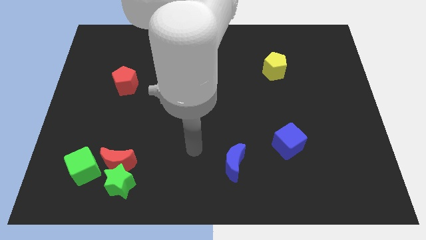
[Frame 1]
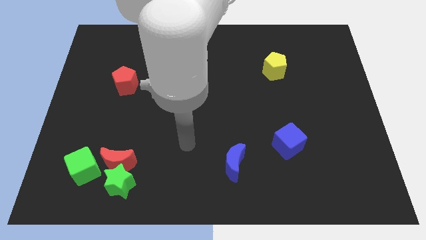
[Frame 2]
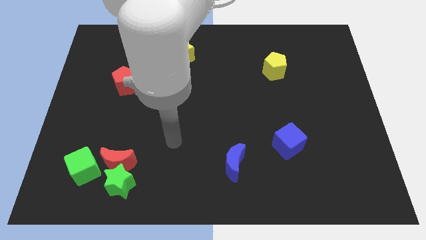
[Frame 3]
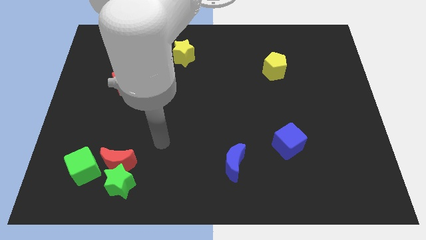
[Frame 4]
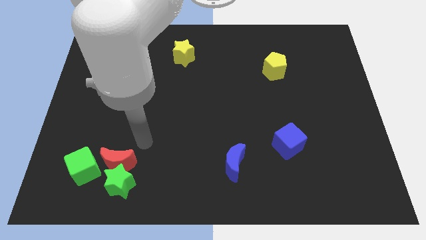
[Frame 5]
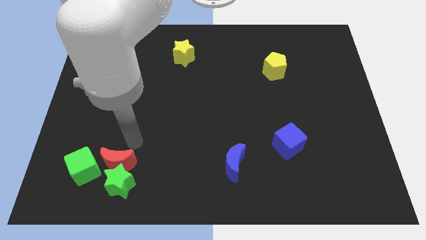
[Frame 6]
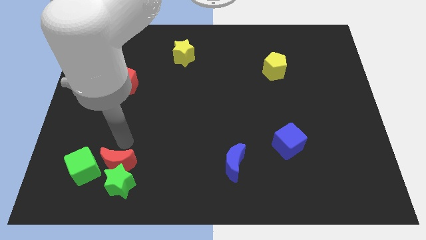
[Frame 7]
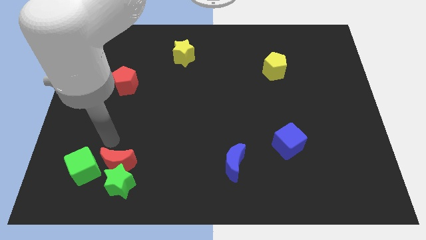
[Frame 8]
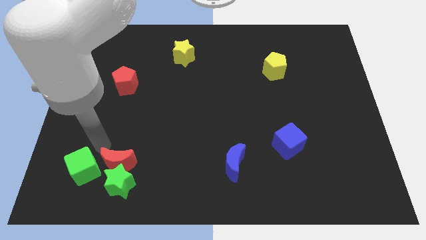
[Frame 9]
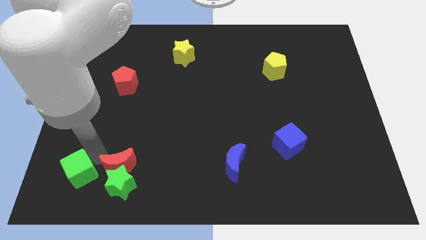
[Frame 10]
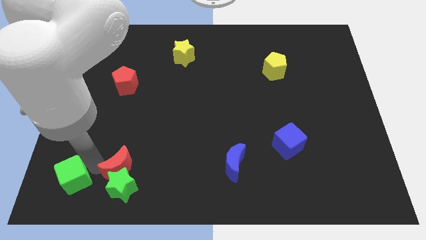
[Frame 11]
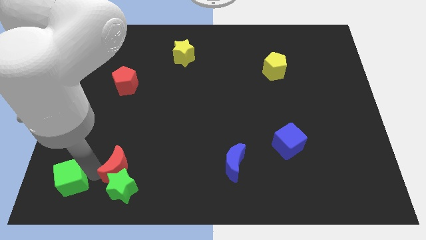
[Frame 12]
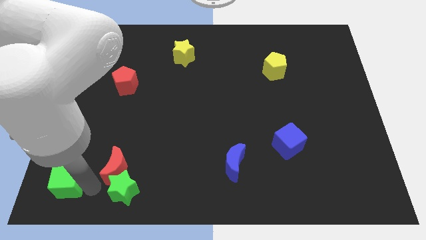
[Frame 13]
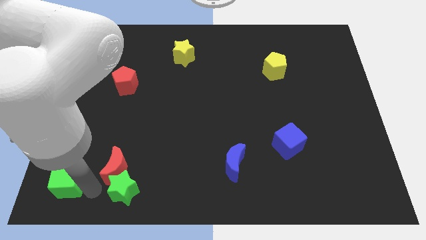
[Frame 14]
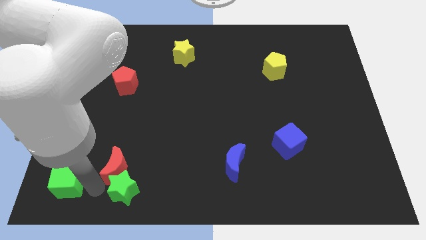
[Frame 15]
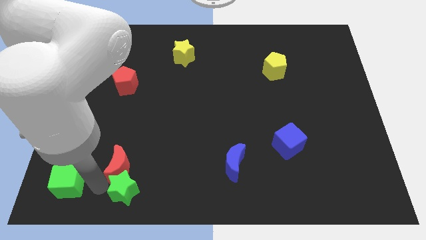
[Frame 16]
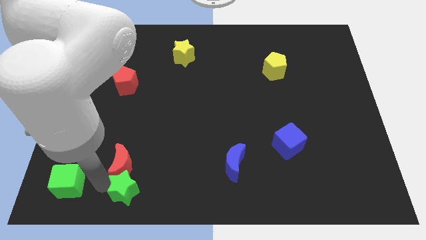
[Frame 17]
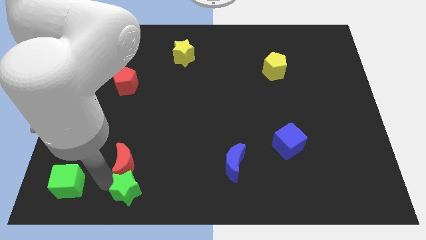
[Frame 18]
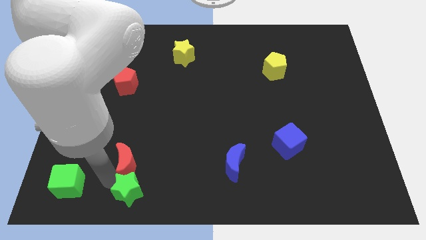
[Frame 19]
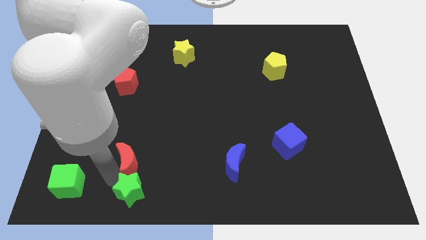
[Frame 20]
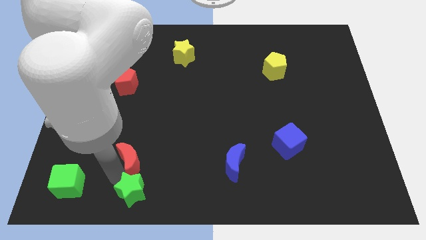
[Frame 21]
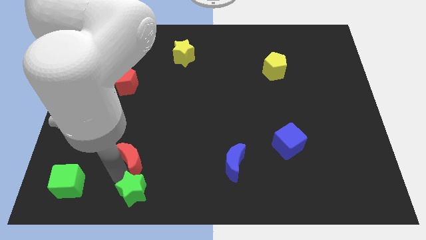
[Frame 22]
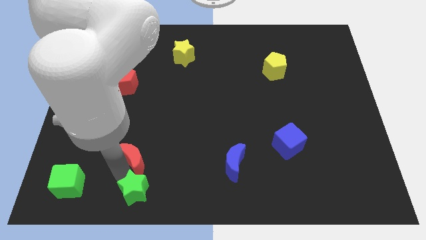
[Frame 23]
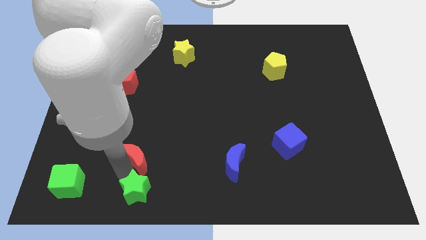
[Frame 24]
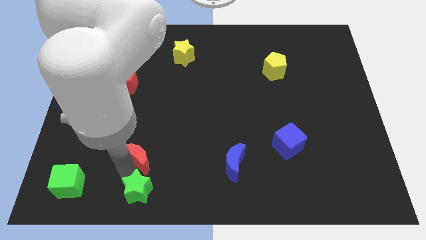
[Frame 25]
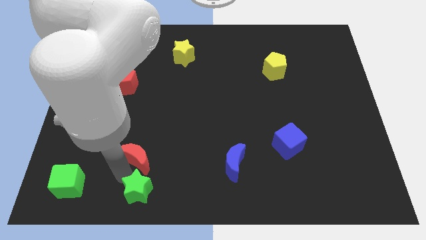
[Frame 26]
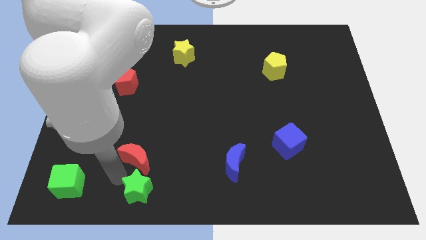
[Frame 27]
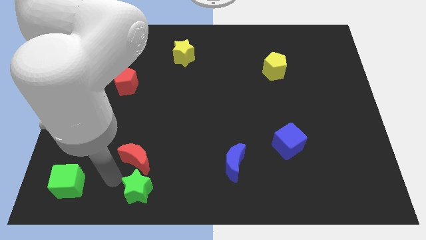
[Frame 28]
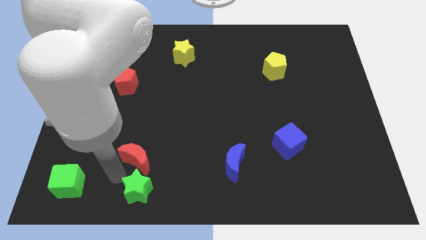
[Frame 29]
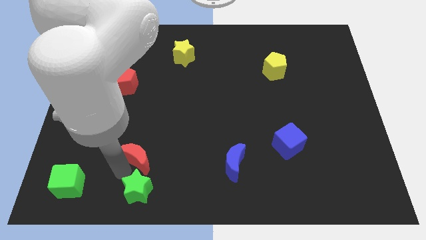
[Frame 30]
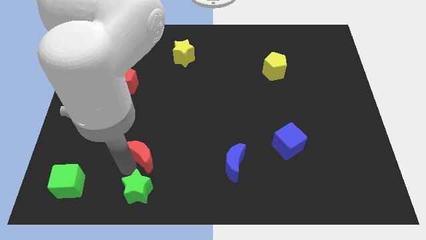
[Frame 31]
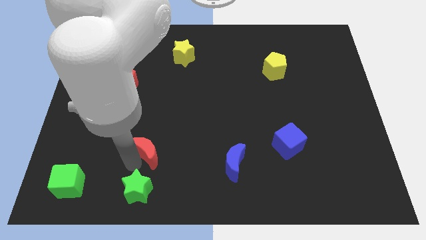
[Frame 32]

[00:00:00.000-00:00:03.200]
move the red moon away from the green star and green cube

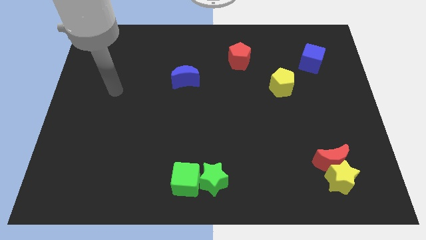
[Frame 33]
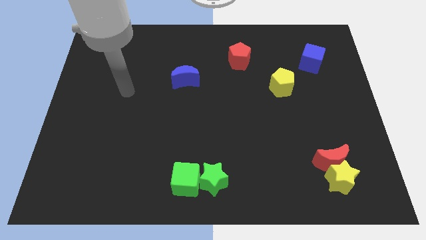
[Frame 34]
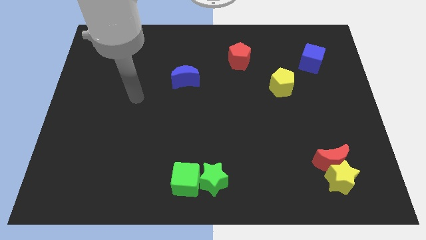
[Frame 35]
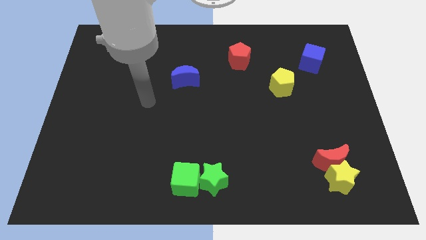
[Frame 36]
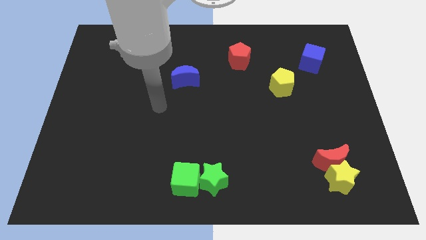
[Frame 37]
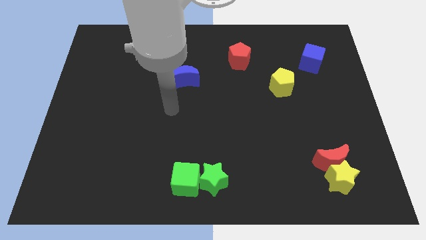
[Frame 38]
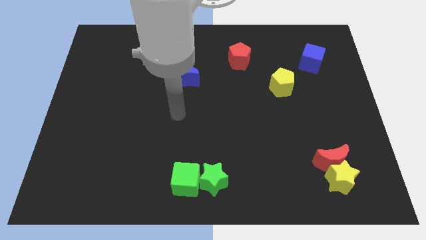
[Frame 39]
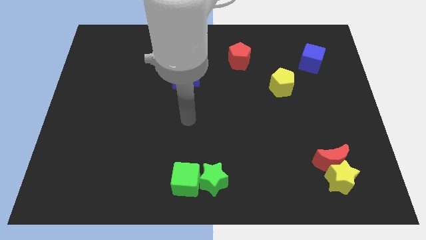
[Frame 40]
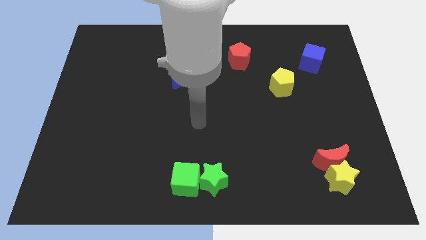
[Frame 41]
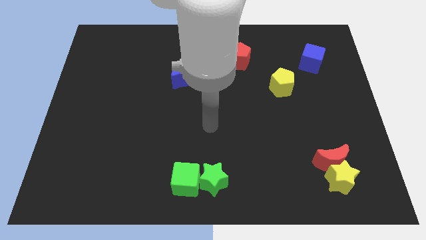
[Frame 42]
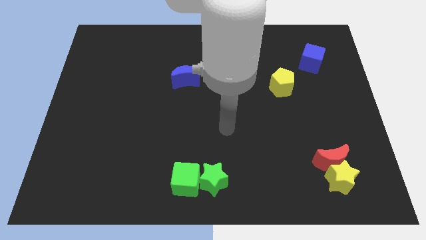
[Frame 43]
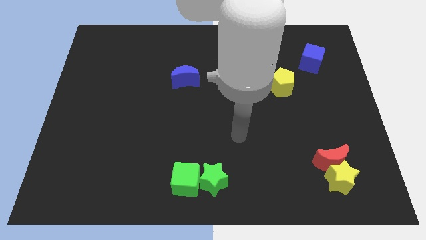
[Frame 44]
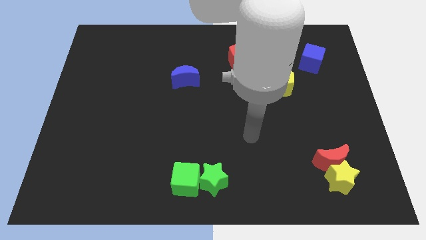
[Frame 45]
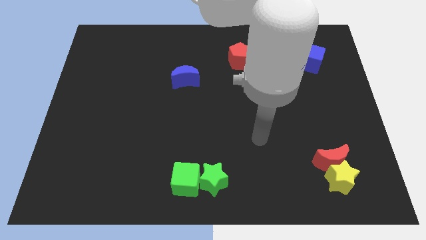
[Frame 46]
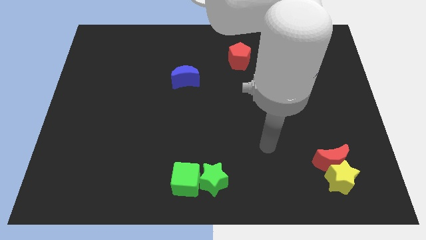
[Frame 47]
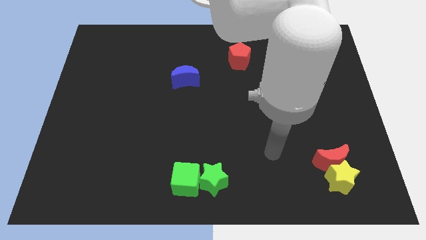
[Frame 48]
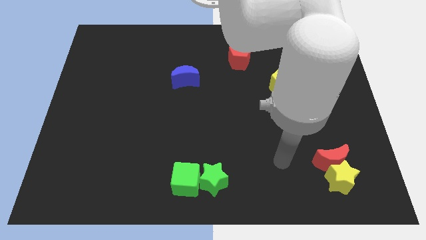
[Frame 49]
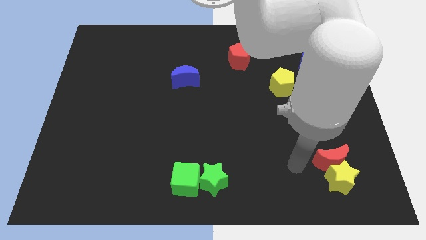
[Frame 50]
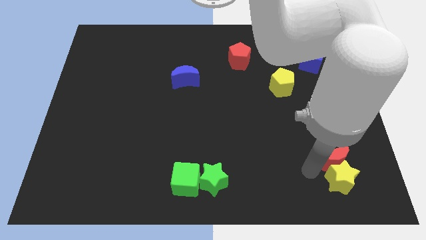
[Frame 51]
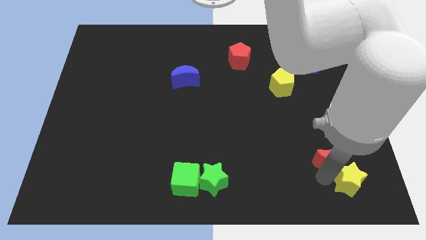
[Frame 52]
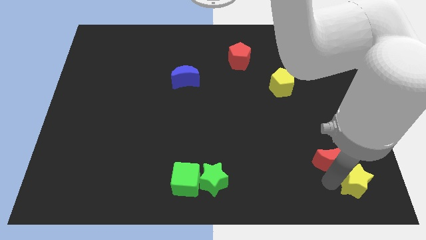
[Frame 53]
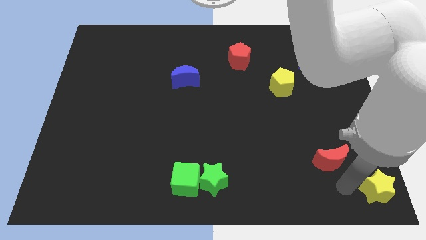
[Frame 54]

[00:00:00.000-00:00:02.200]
pull the red moon apart from the yellow star

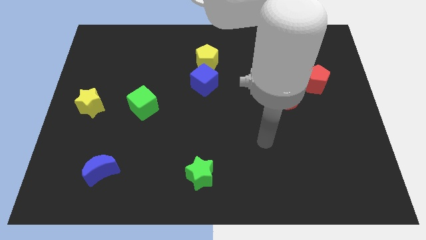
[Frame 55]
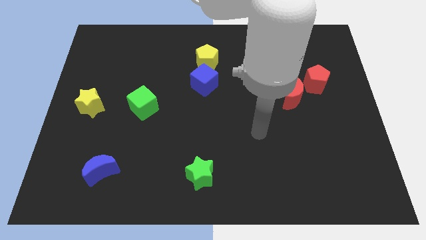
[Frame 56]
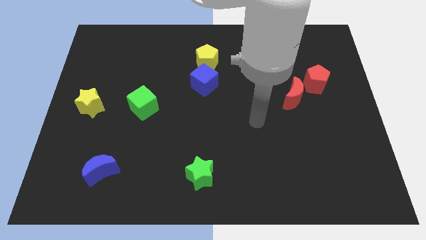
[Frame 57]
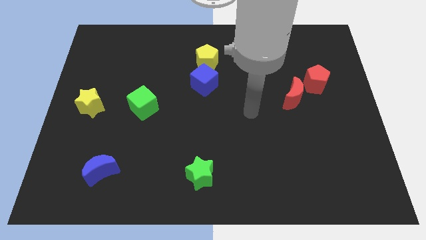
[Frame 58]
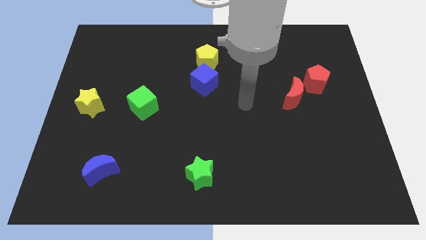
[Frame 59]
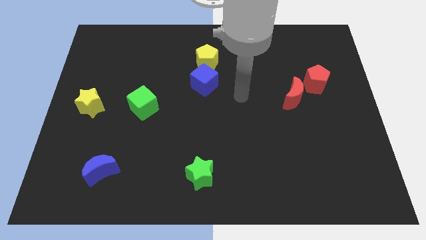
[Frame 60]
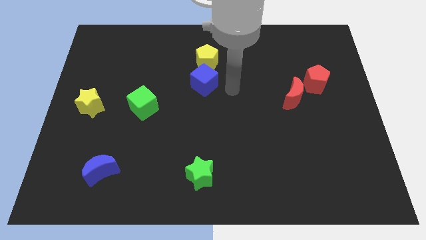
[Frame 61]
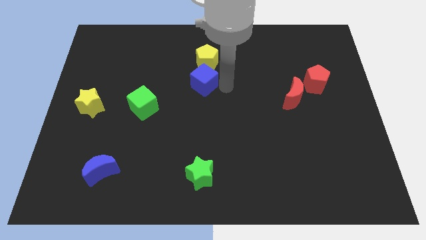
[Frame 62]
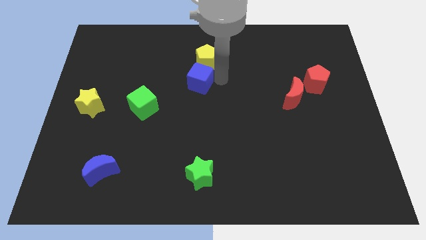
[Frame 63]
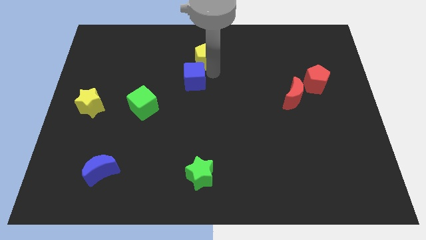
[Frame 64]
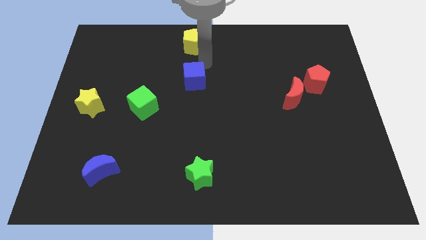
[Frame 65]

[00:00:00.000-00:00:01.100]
separate the blue cube from the yellow pentagon

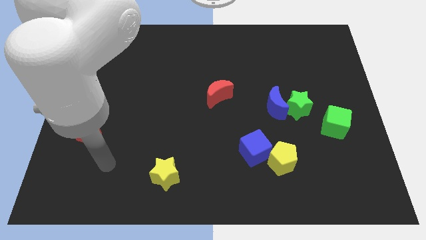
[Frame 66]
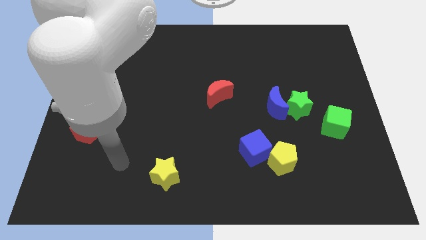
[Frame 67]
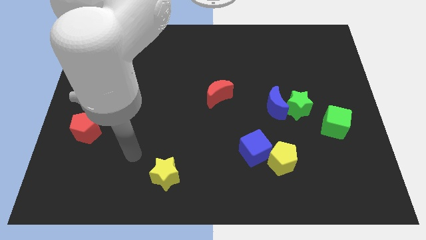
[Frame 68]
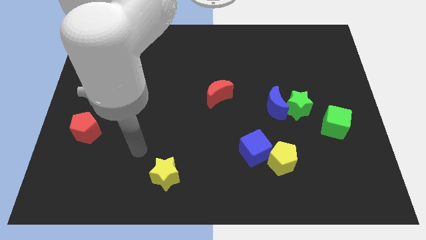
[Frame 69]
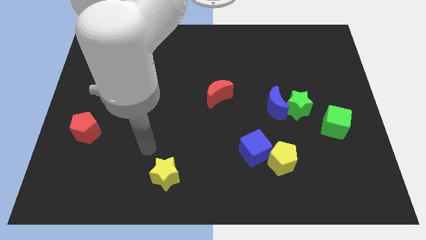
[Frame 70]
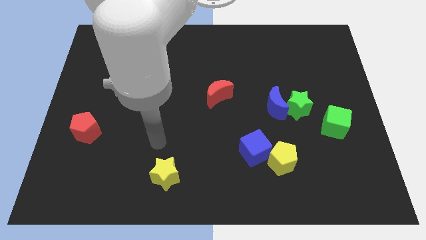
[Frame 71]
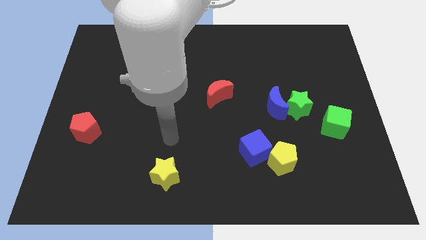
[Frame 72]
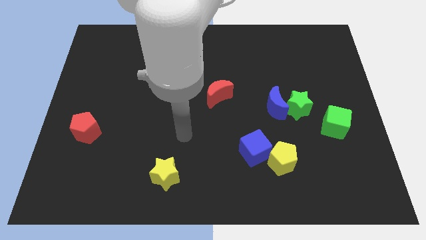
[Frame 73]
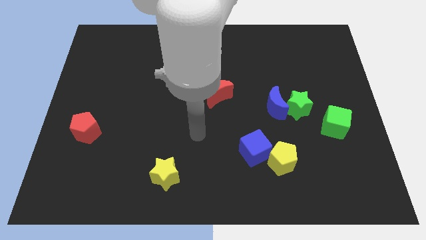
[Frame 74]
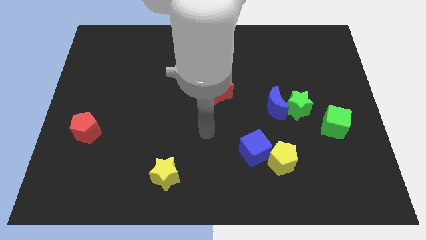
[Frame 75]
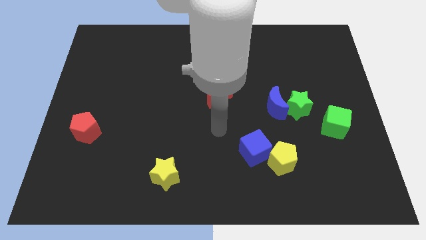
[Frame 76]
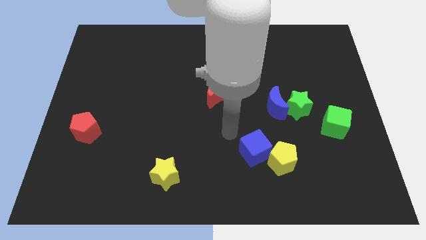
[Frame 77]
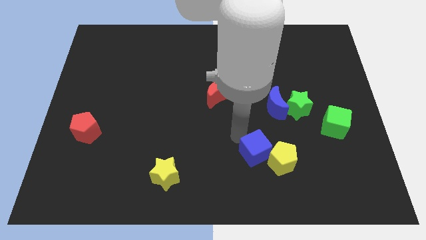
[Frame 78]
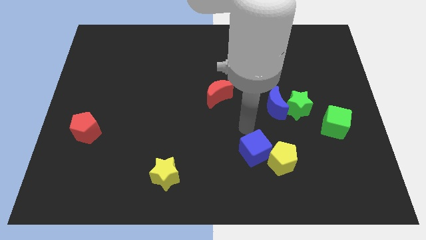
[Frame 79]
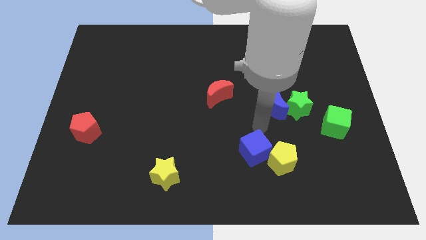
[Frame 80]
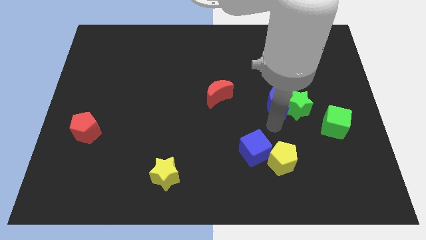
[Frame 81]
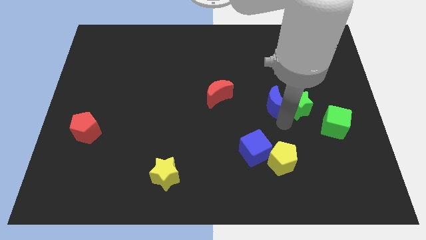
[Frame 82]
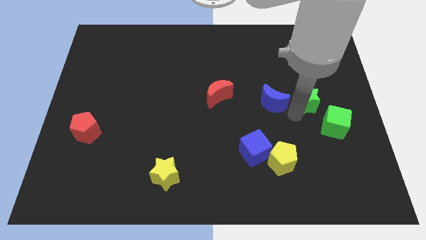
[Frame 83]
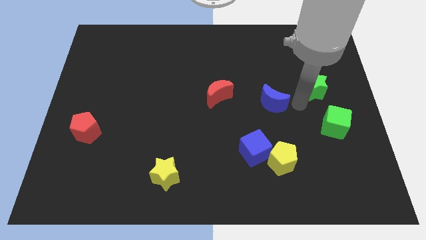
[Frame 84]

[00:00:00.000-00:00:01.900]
separate the blue moon from the green star

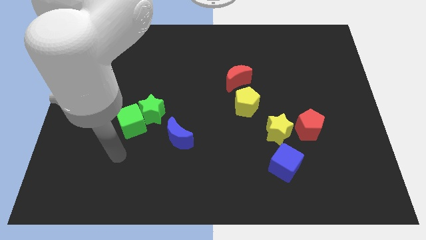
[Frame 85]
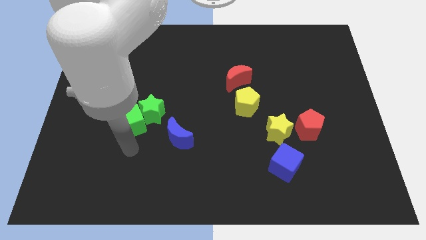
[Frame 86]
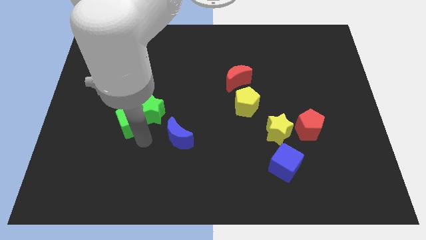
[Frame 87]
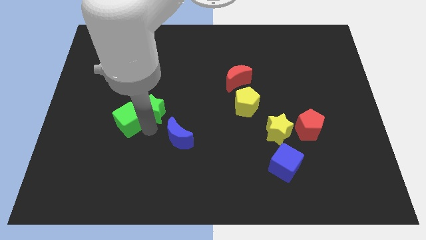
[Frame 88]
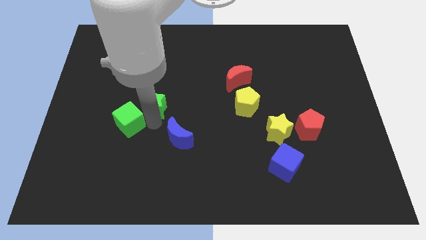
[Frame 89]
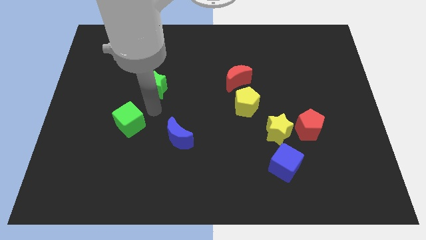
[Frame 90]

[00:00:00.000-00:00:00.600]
pull the green cube apart from the green star

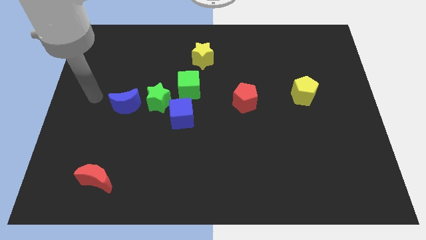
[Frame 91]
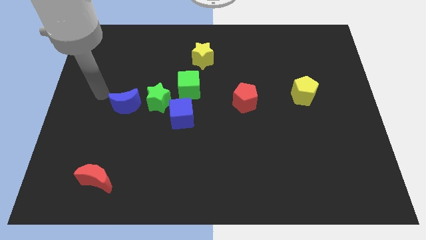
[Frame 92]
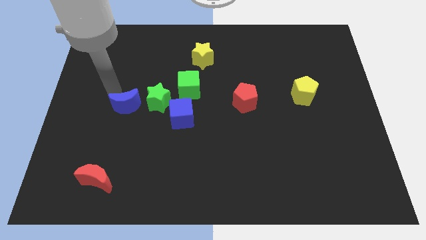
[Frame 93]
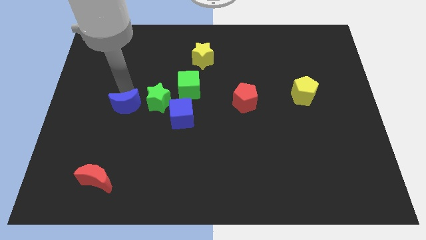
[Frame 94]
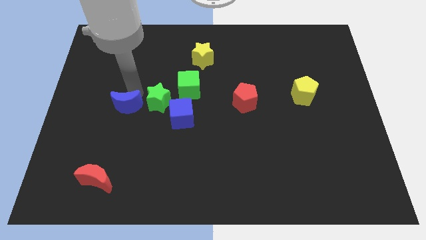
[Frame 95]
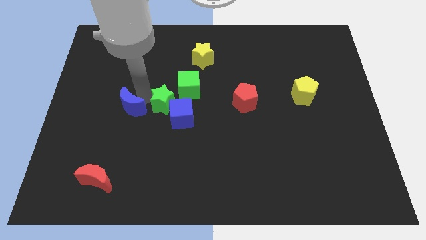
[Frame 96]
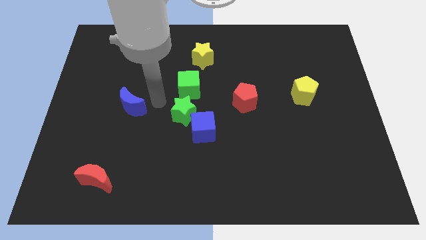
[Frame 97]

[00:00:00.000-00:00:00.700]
move the blue moon away from the green star
